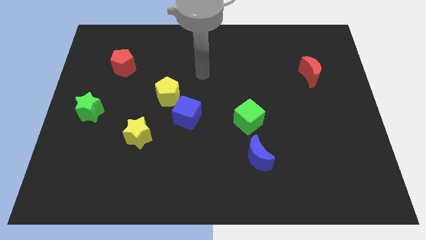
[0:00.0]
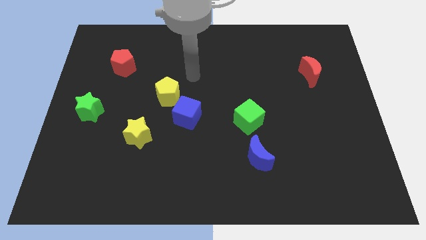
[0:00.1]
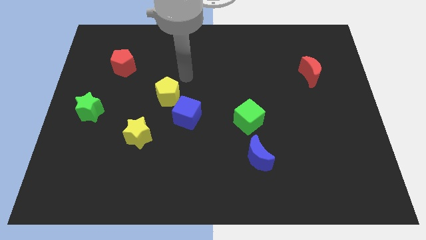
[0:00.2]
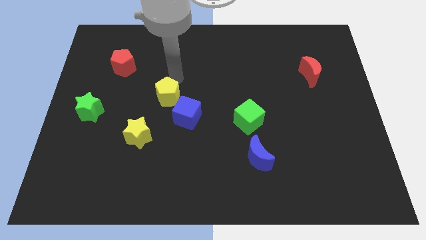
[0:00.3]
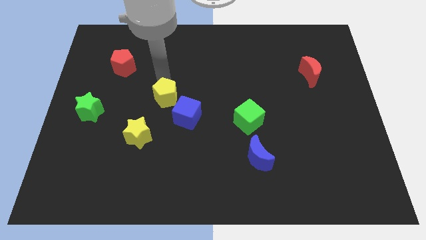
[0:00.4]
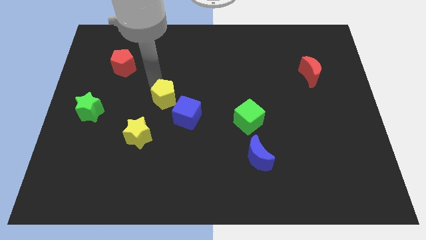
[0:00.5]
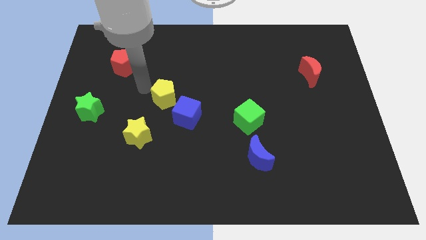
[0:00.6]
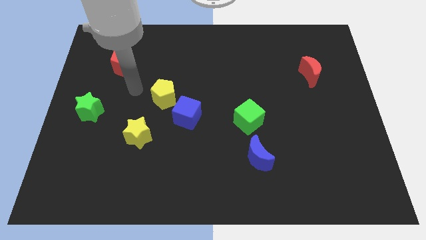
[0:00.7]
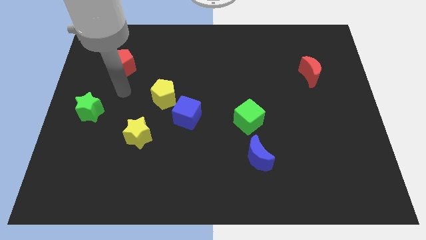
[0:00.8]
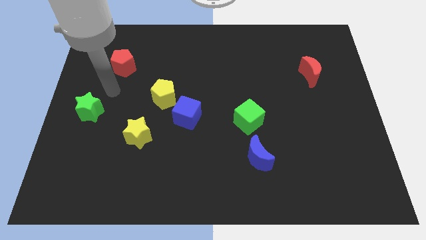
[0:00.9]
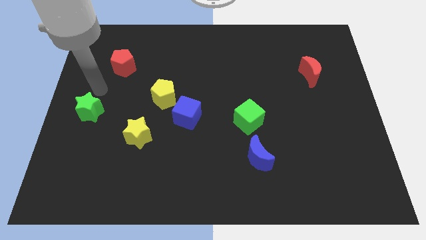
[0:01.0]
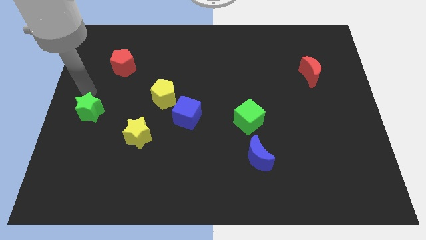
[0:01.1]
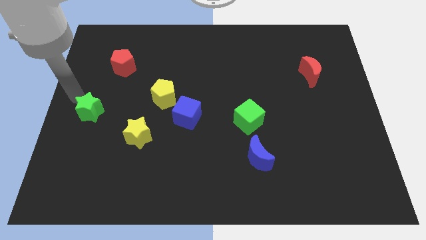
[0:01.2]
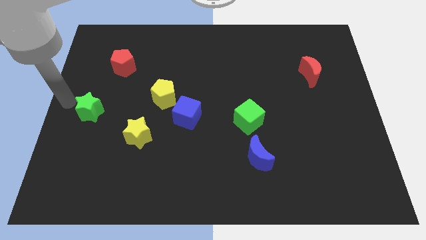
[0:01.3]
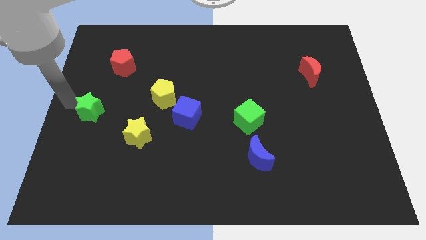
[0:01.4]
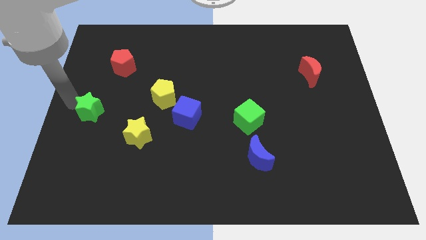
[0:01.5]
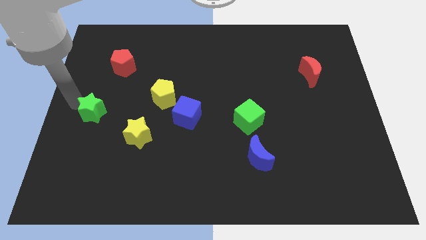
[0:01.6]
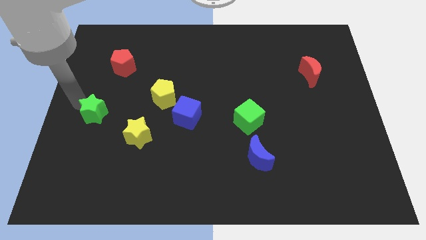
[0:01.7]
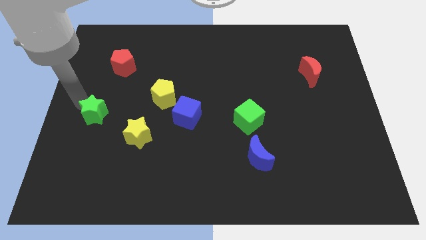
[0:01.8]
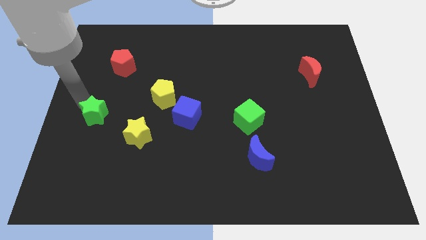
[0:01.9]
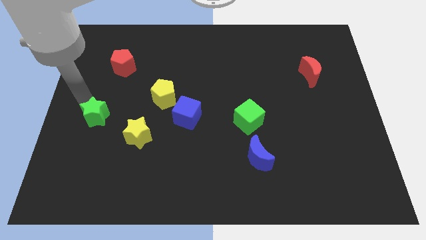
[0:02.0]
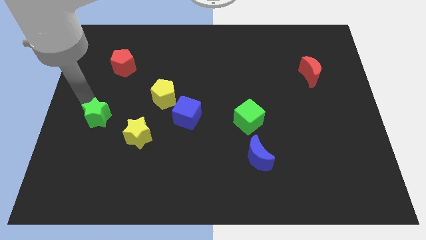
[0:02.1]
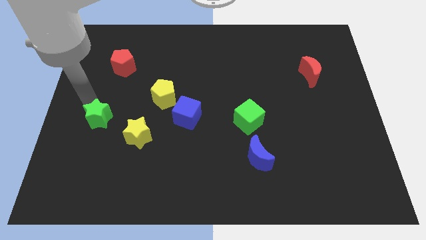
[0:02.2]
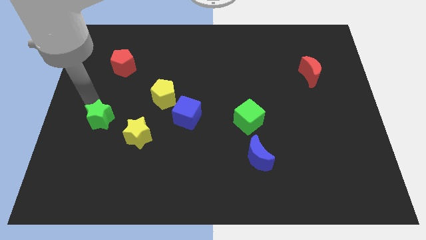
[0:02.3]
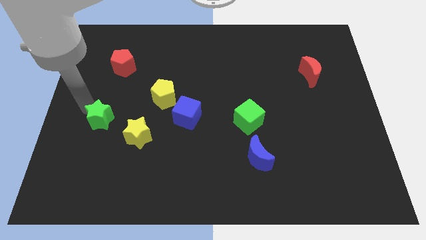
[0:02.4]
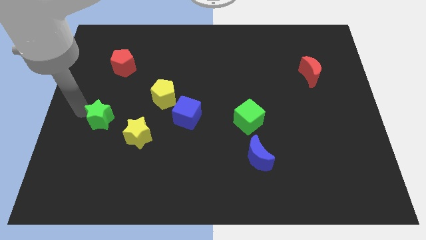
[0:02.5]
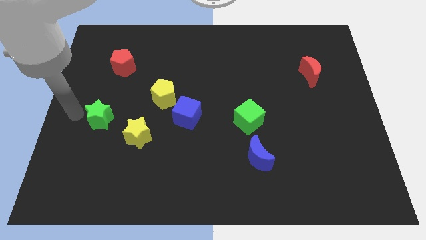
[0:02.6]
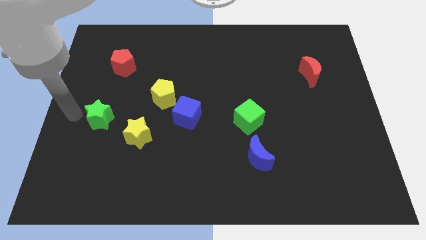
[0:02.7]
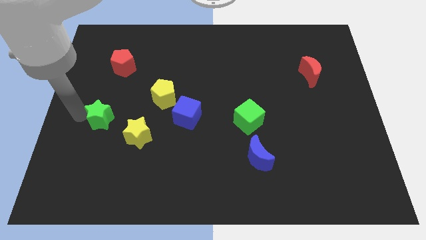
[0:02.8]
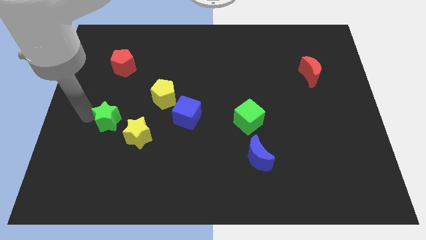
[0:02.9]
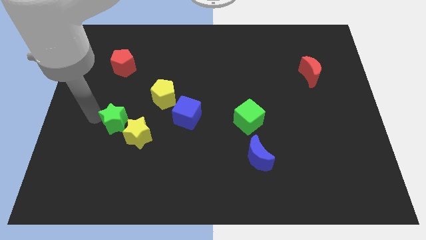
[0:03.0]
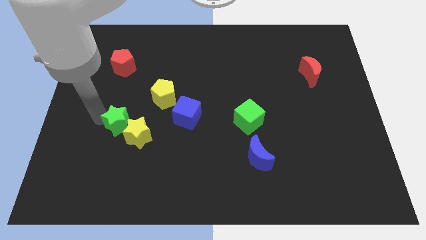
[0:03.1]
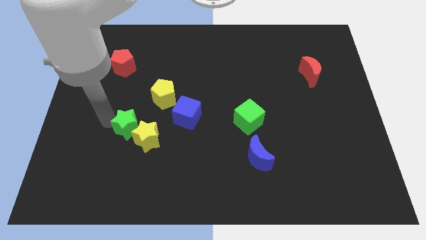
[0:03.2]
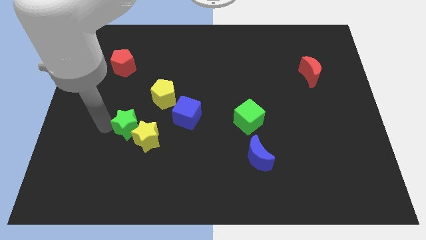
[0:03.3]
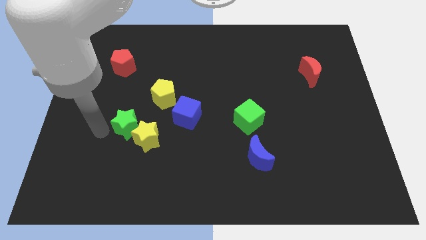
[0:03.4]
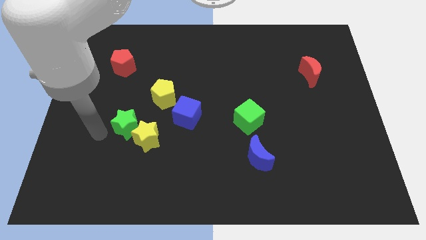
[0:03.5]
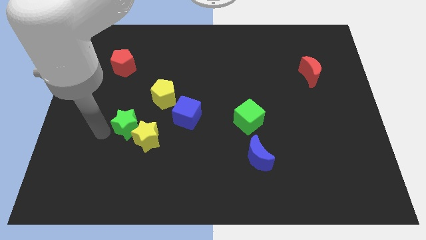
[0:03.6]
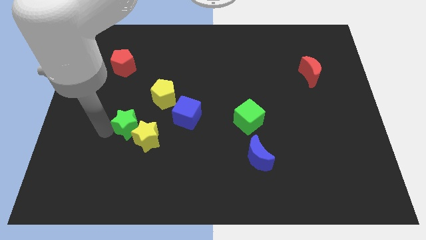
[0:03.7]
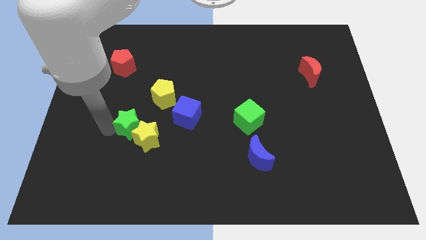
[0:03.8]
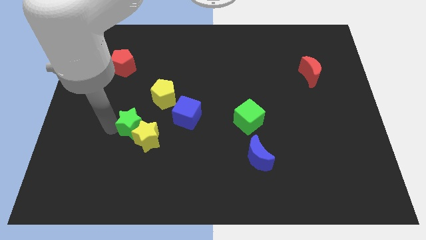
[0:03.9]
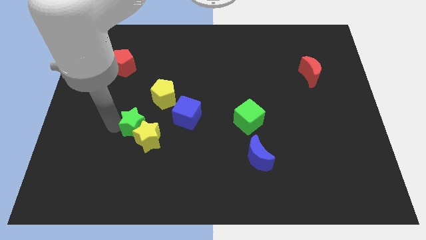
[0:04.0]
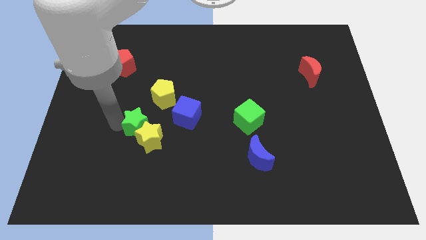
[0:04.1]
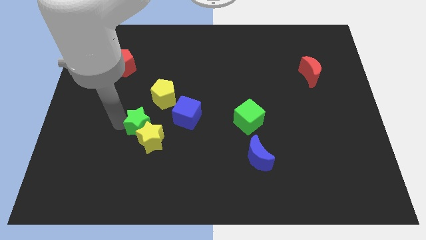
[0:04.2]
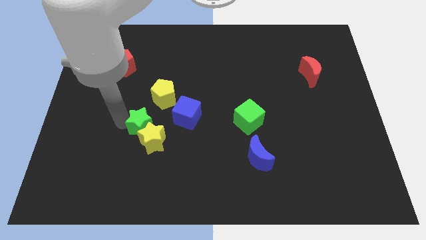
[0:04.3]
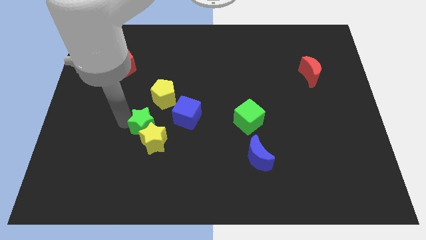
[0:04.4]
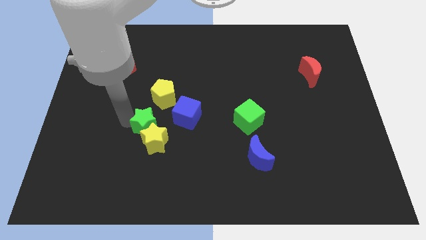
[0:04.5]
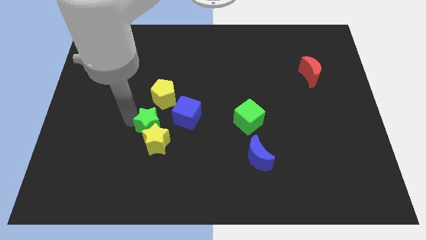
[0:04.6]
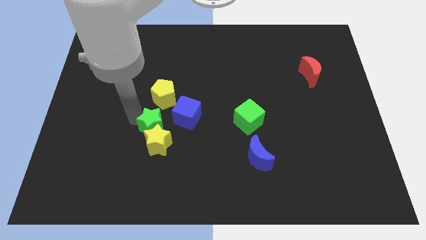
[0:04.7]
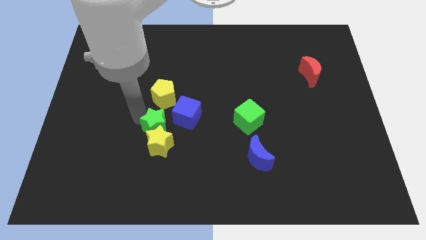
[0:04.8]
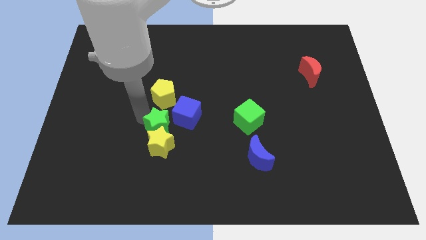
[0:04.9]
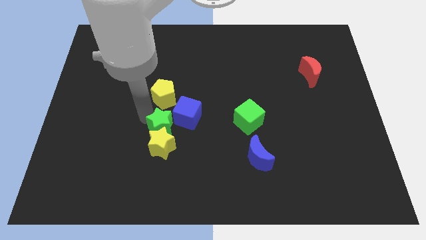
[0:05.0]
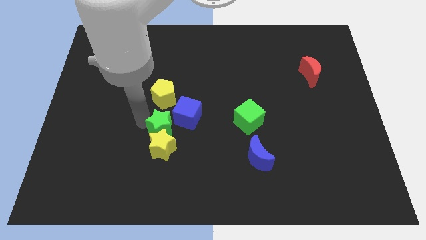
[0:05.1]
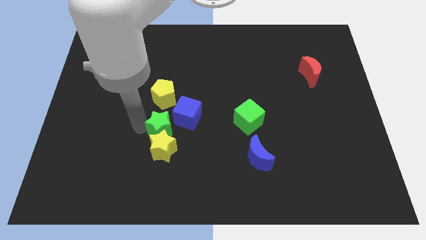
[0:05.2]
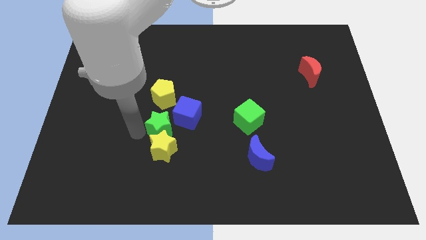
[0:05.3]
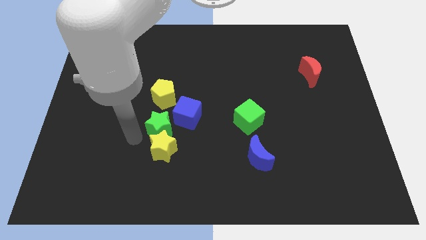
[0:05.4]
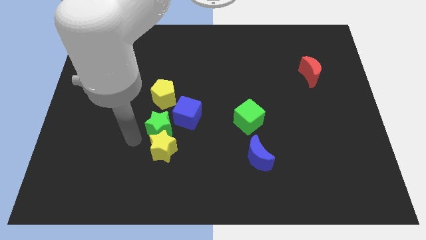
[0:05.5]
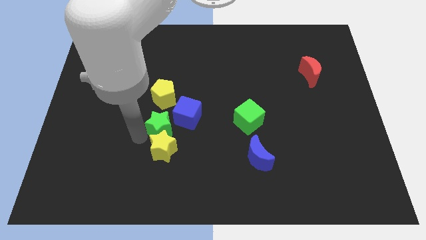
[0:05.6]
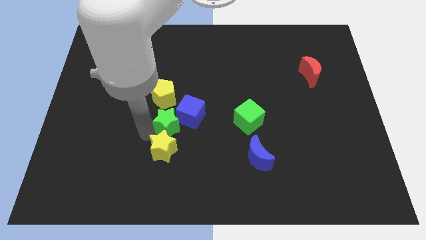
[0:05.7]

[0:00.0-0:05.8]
move the green star close to the blue cube

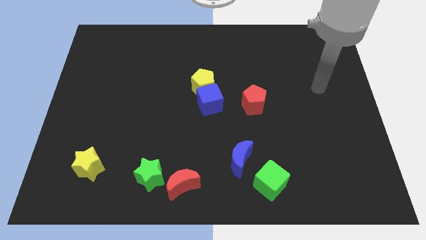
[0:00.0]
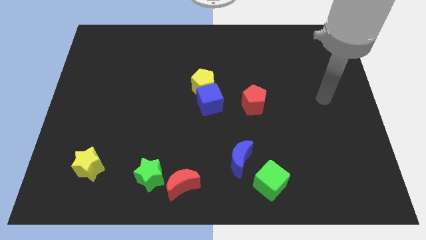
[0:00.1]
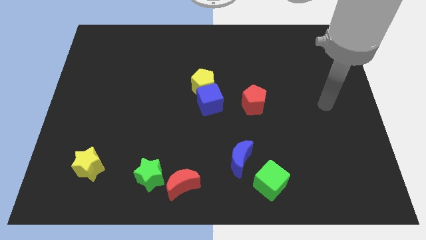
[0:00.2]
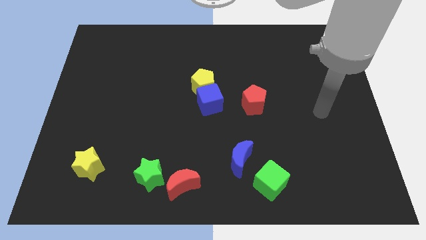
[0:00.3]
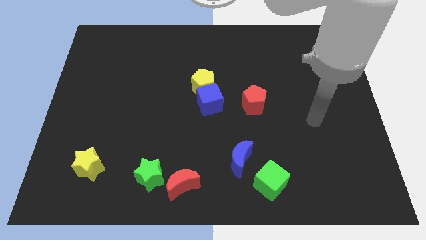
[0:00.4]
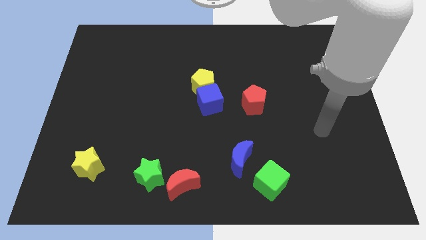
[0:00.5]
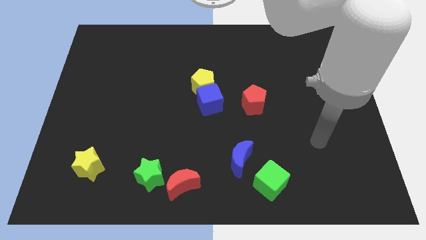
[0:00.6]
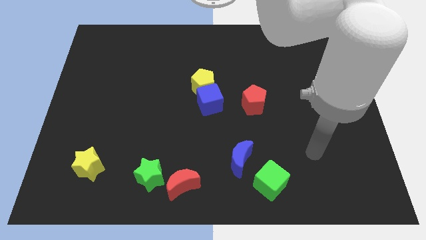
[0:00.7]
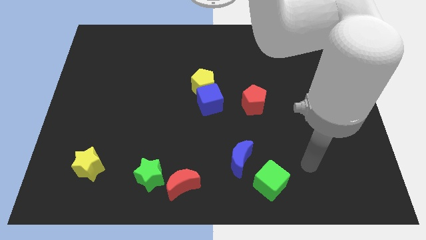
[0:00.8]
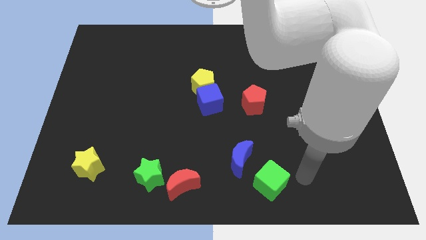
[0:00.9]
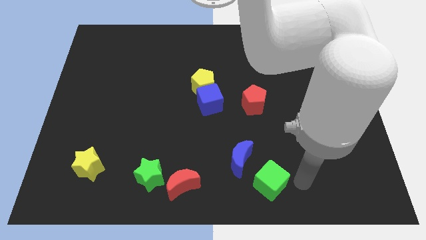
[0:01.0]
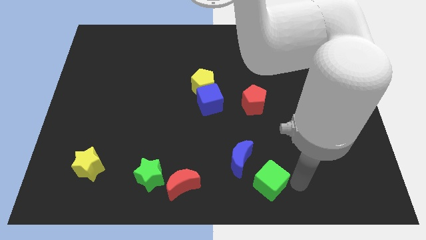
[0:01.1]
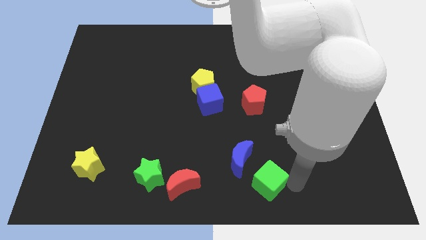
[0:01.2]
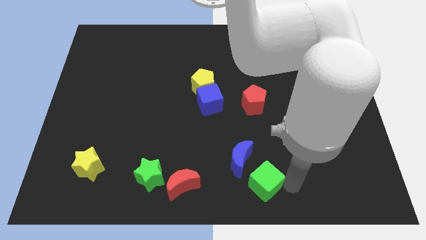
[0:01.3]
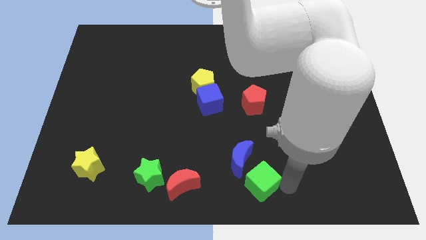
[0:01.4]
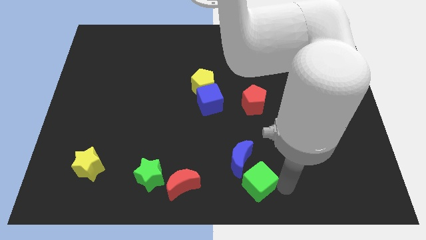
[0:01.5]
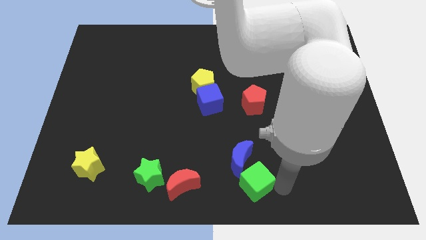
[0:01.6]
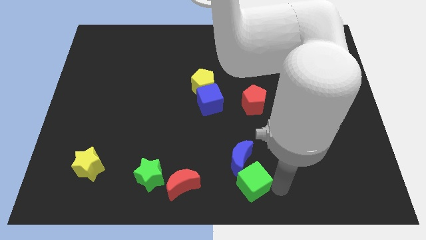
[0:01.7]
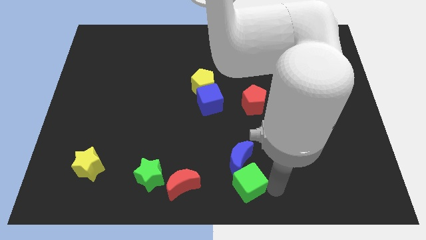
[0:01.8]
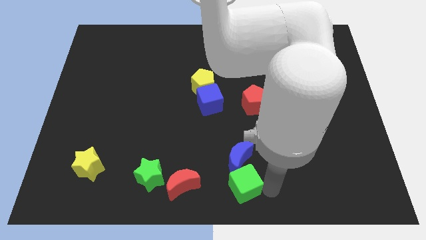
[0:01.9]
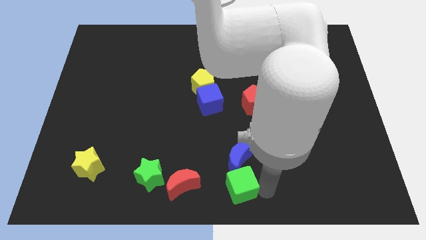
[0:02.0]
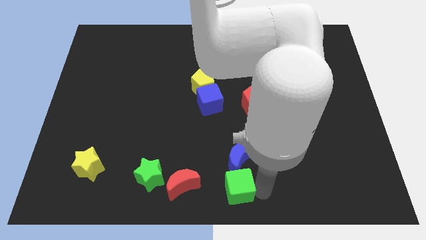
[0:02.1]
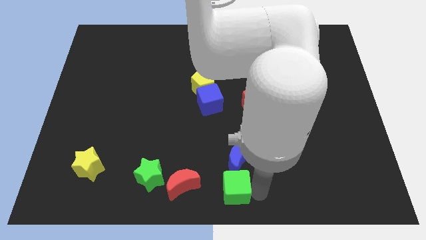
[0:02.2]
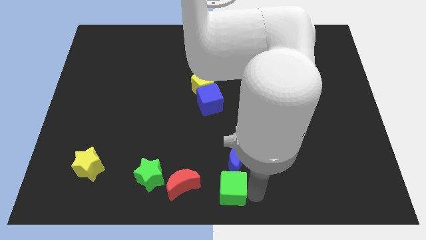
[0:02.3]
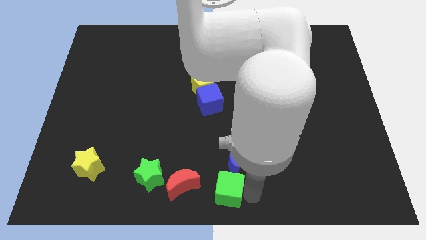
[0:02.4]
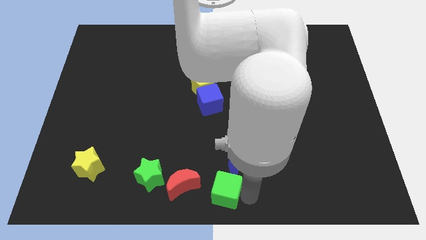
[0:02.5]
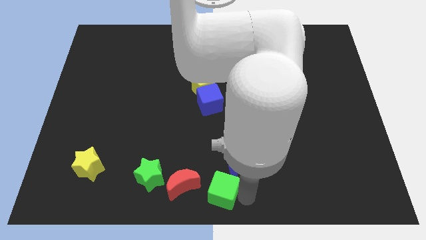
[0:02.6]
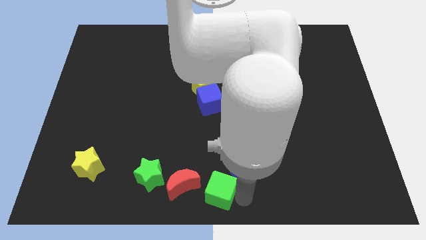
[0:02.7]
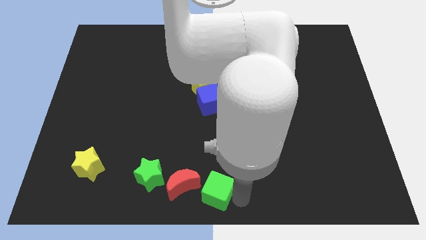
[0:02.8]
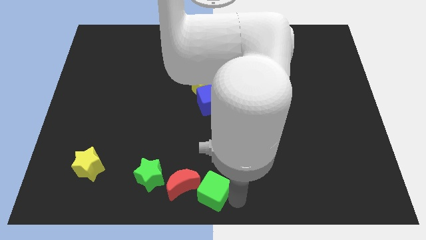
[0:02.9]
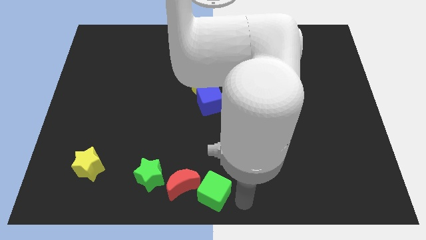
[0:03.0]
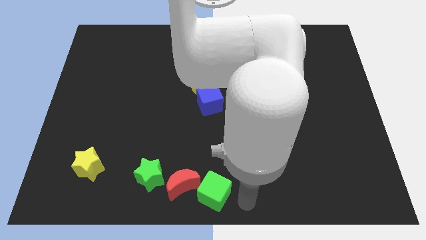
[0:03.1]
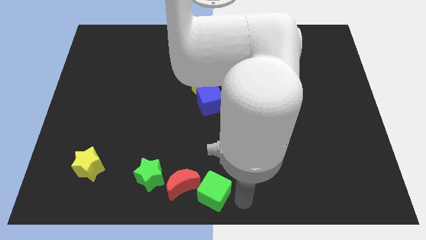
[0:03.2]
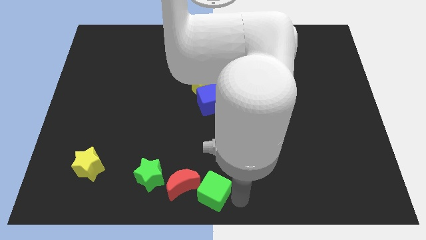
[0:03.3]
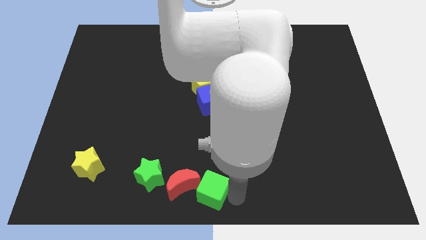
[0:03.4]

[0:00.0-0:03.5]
put the green cube close to the red moon
